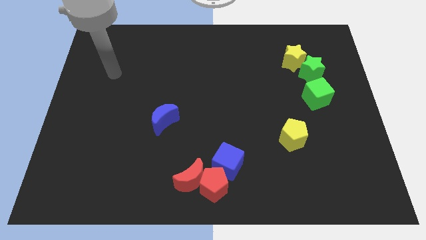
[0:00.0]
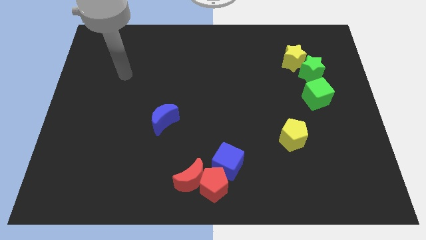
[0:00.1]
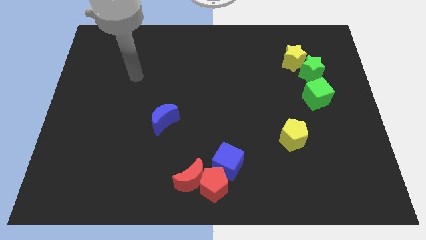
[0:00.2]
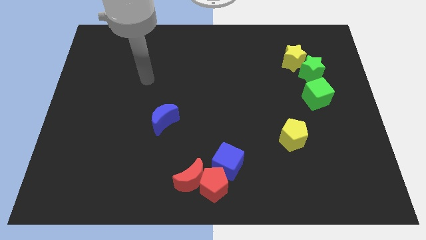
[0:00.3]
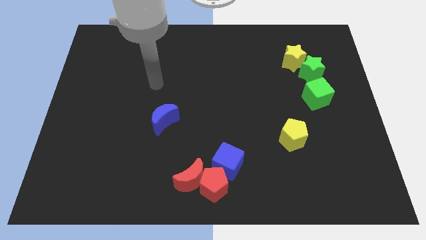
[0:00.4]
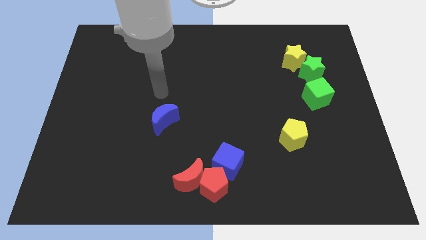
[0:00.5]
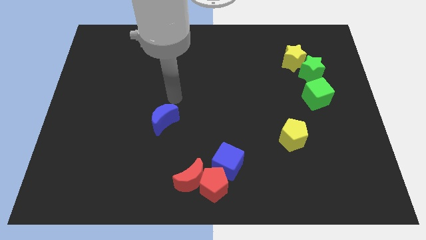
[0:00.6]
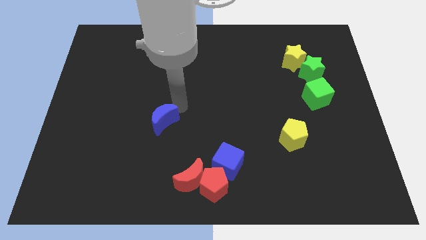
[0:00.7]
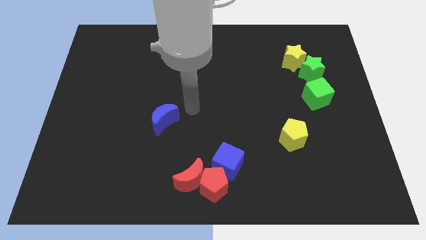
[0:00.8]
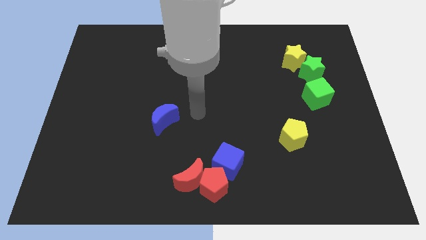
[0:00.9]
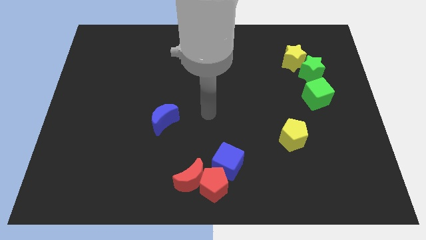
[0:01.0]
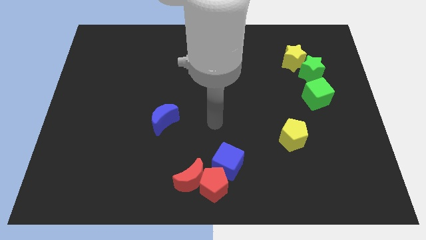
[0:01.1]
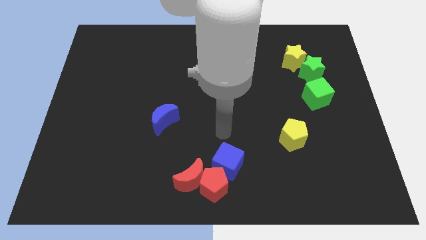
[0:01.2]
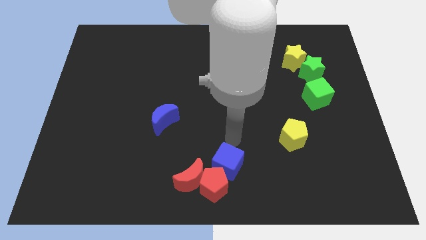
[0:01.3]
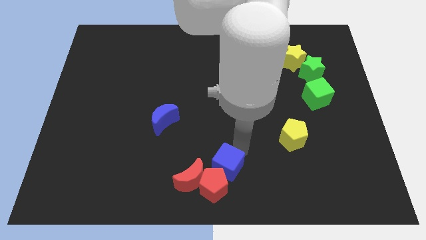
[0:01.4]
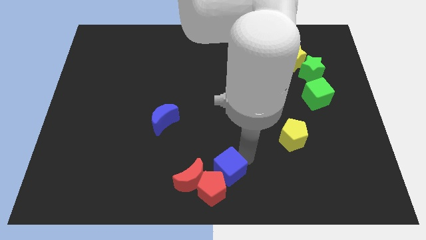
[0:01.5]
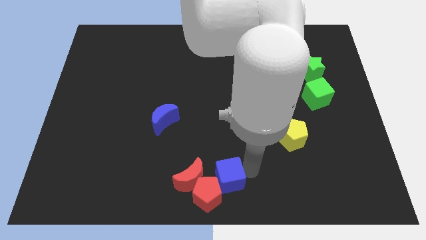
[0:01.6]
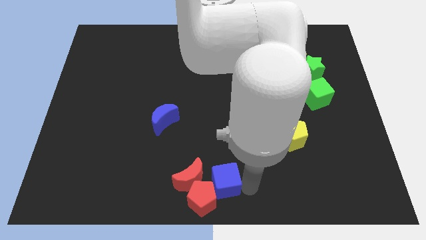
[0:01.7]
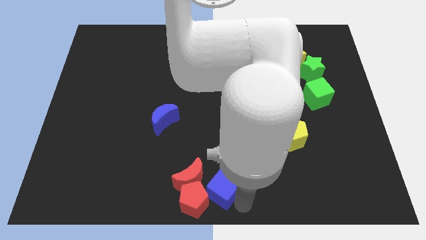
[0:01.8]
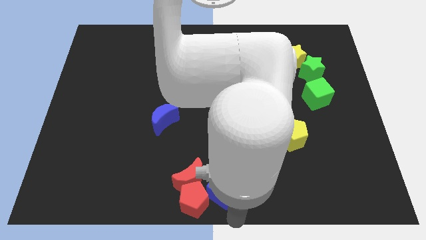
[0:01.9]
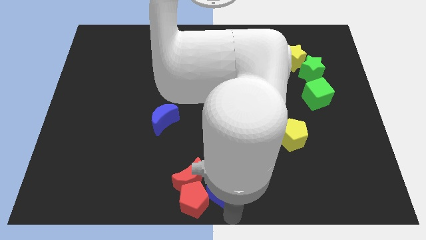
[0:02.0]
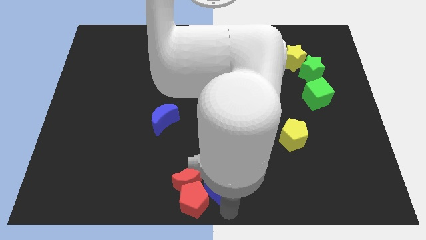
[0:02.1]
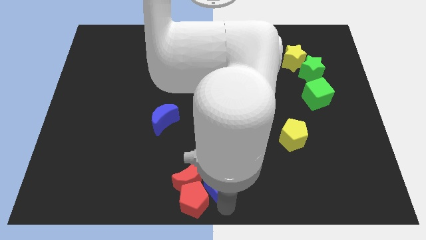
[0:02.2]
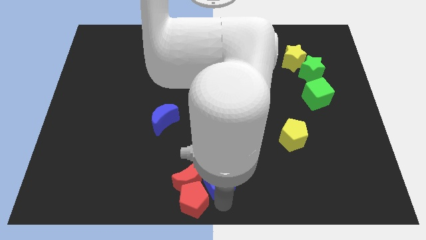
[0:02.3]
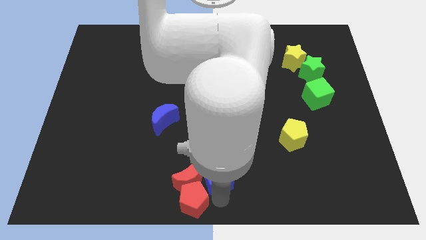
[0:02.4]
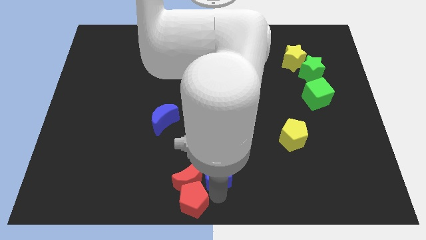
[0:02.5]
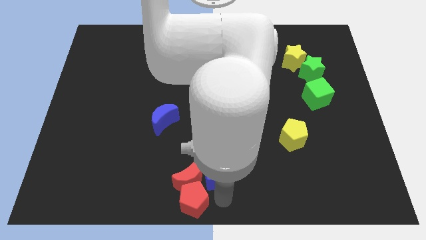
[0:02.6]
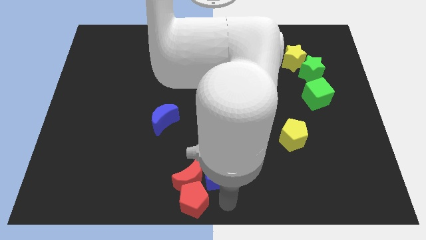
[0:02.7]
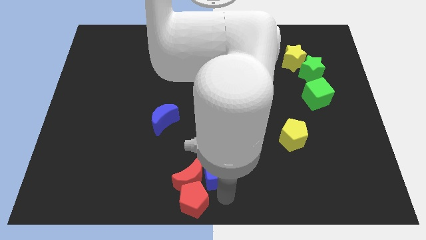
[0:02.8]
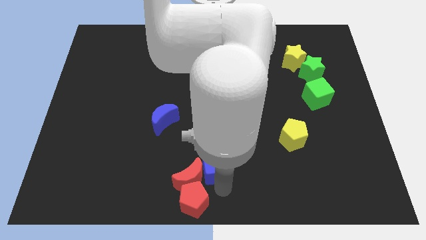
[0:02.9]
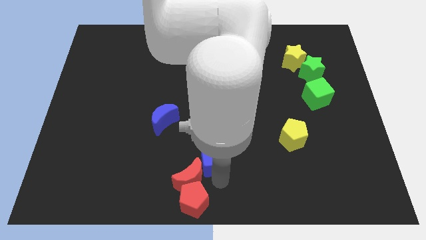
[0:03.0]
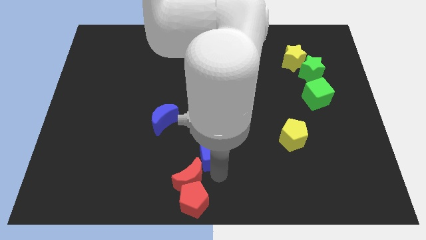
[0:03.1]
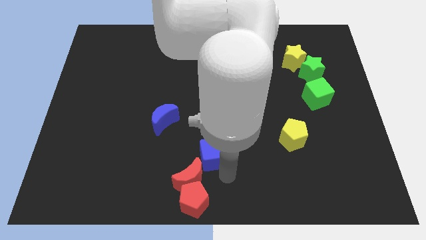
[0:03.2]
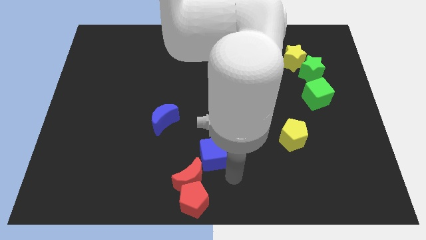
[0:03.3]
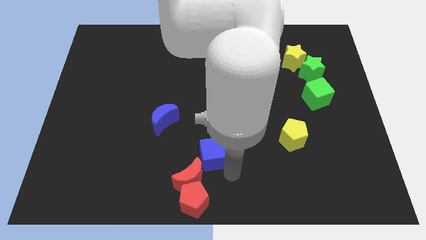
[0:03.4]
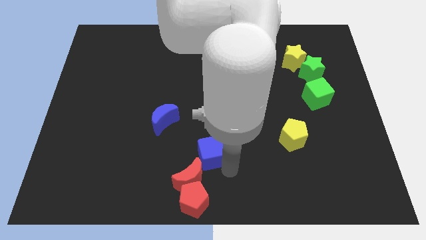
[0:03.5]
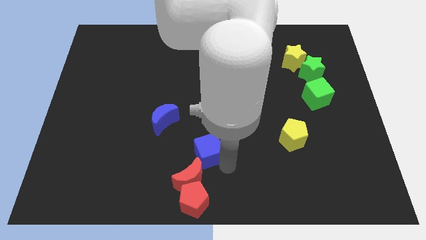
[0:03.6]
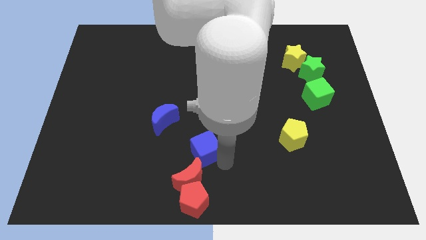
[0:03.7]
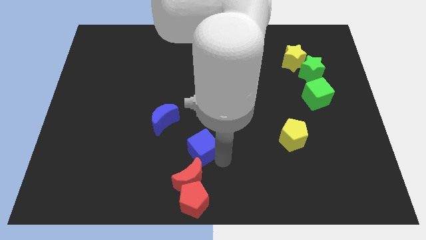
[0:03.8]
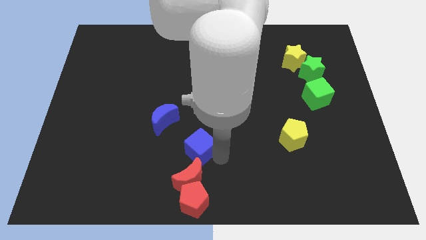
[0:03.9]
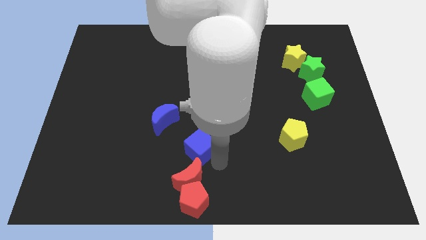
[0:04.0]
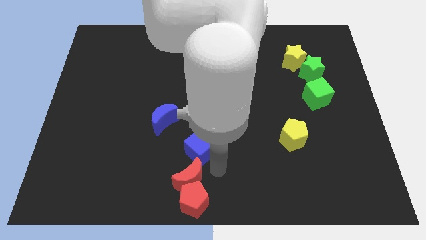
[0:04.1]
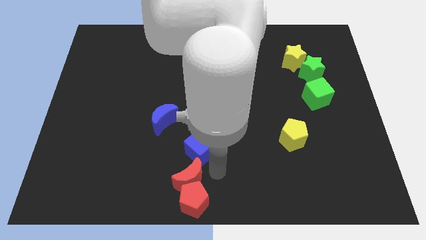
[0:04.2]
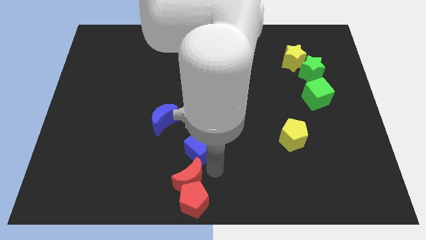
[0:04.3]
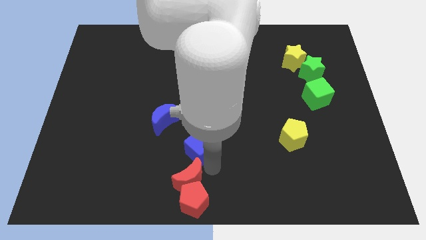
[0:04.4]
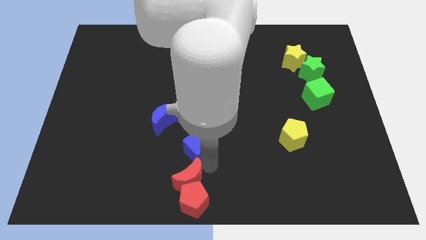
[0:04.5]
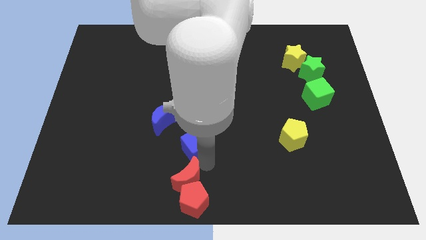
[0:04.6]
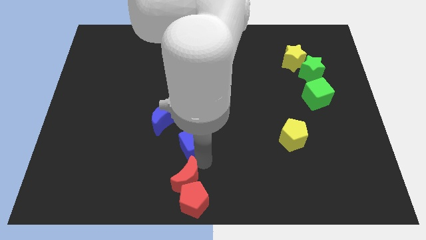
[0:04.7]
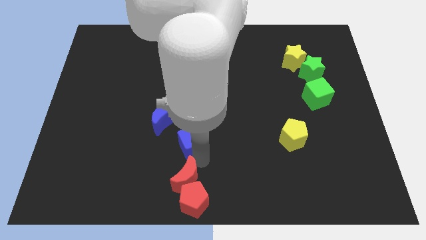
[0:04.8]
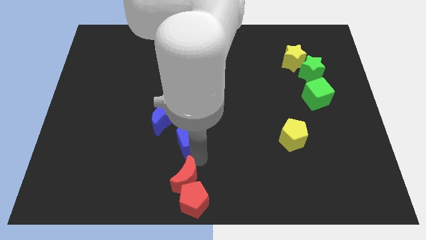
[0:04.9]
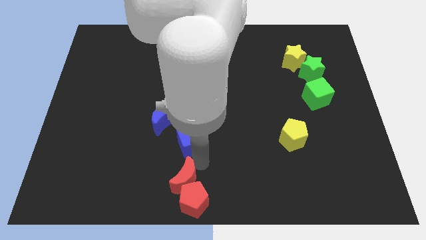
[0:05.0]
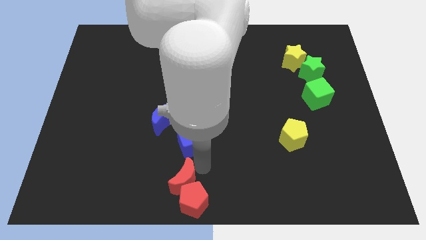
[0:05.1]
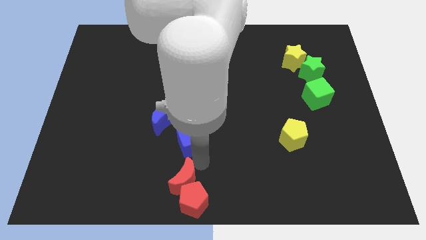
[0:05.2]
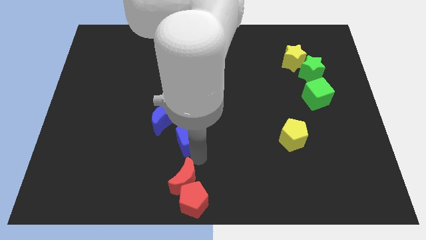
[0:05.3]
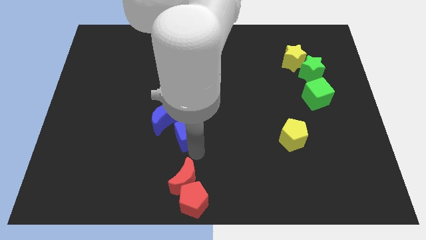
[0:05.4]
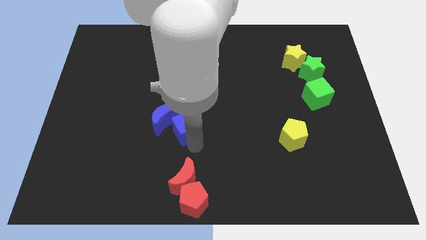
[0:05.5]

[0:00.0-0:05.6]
put the blue cube to the blue moon

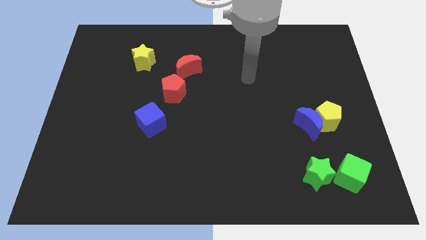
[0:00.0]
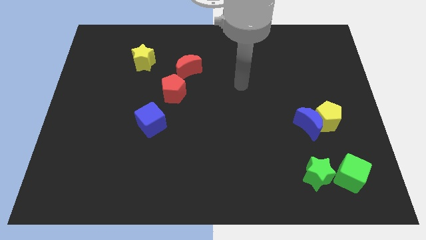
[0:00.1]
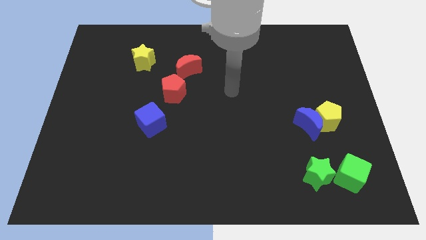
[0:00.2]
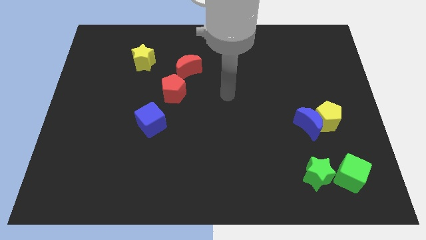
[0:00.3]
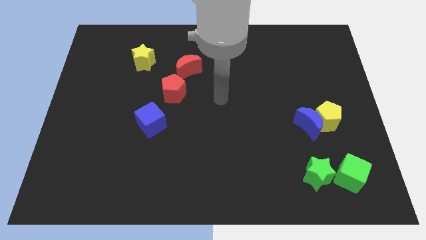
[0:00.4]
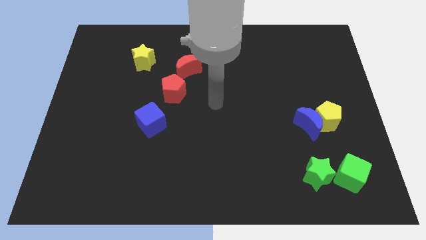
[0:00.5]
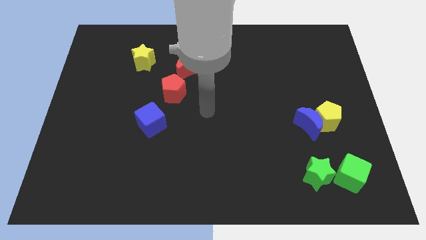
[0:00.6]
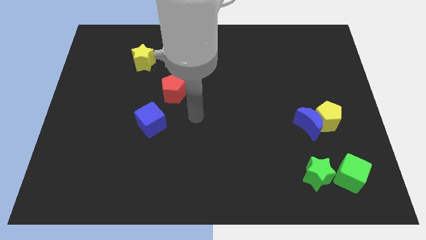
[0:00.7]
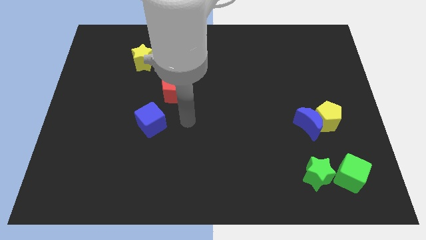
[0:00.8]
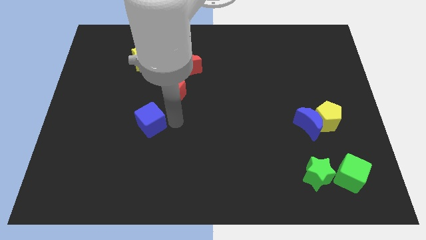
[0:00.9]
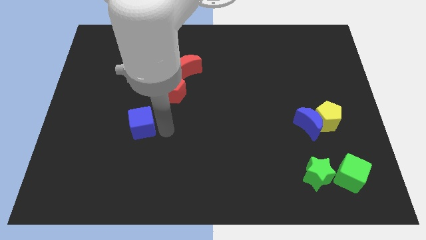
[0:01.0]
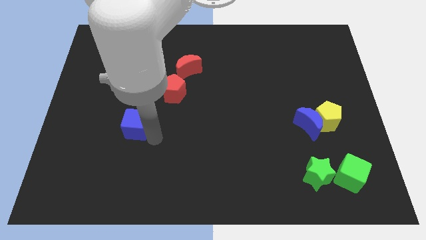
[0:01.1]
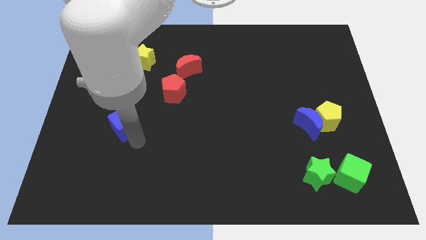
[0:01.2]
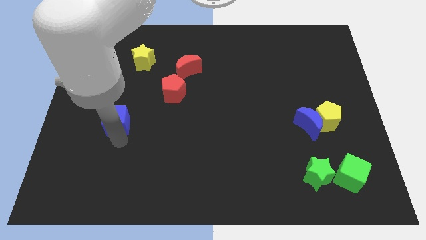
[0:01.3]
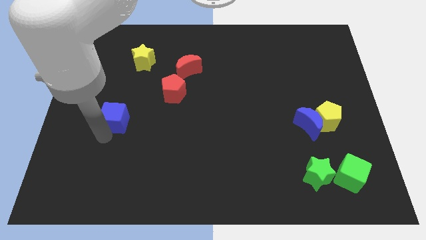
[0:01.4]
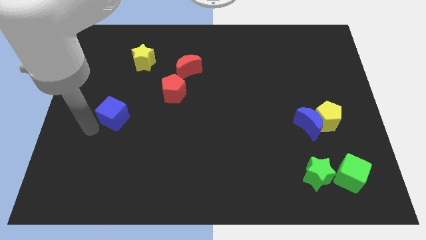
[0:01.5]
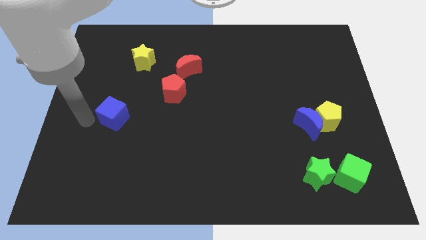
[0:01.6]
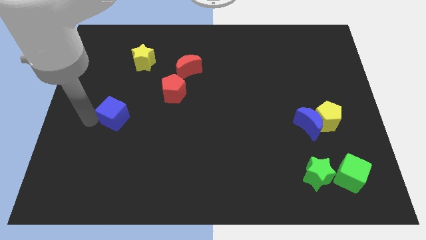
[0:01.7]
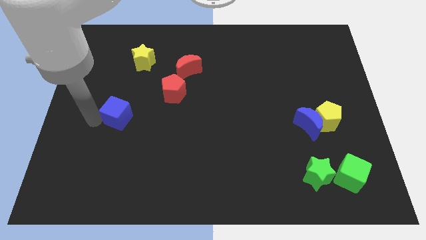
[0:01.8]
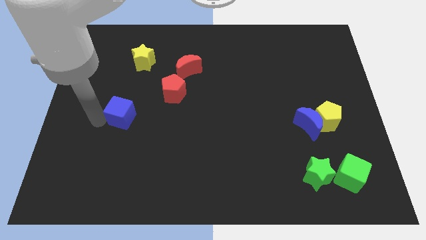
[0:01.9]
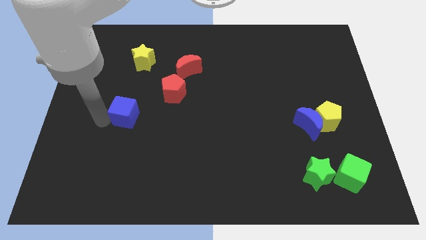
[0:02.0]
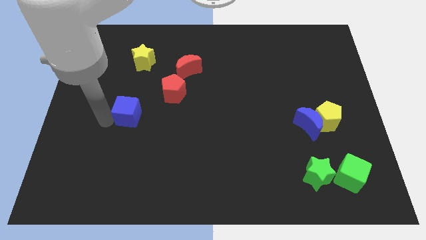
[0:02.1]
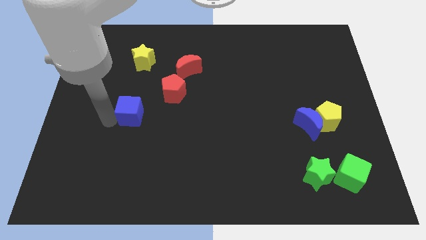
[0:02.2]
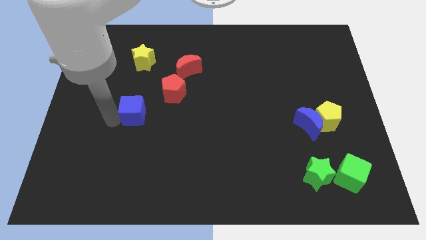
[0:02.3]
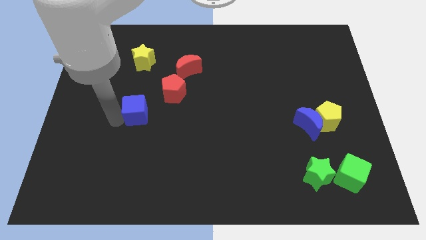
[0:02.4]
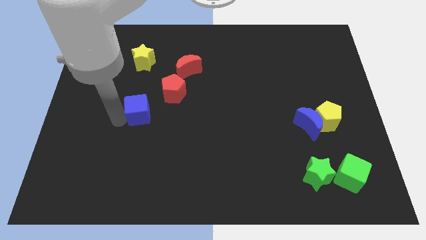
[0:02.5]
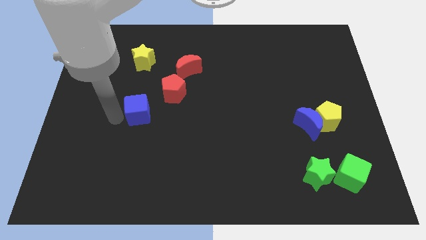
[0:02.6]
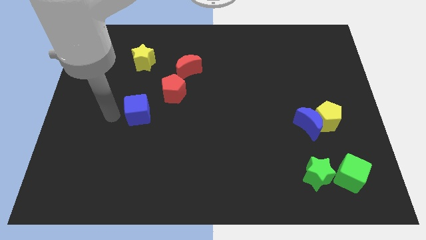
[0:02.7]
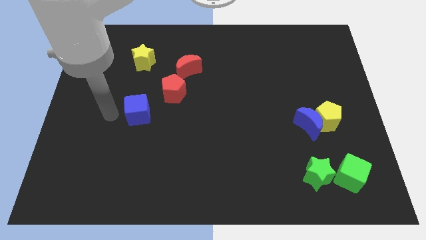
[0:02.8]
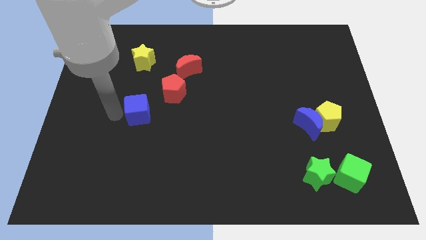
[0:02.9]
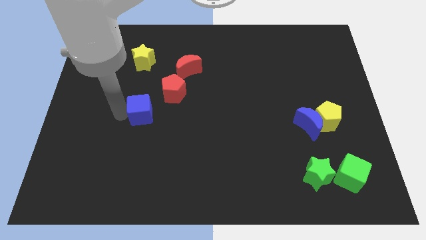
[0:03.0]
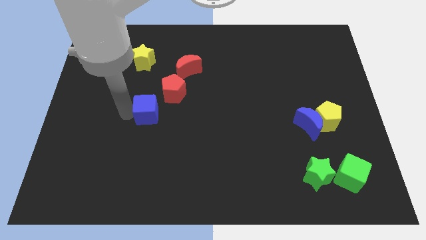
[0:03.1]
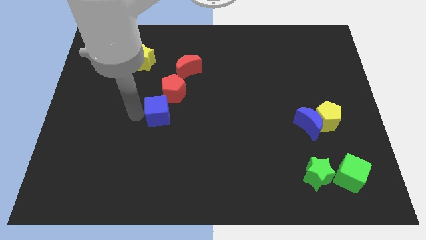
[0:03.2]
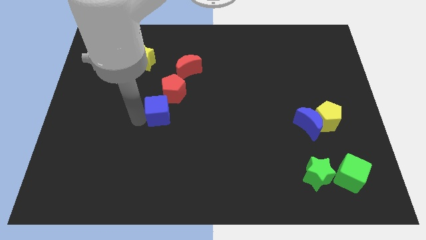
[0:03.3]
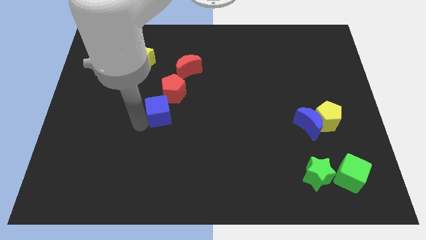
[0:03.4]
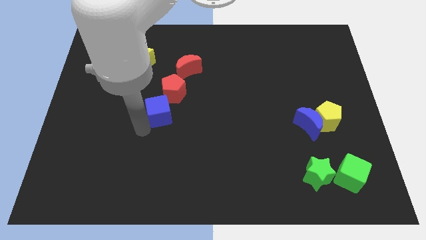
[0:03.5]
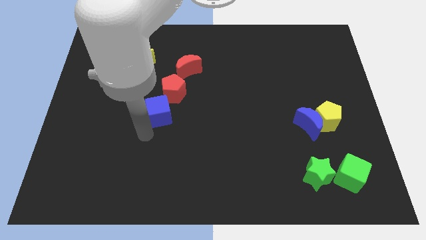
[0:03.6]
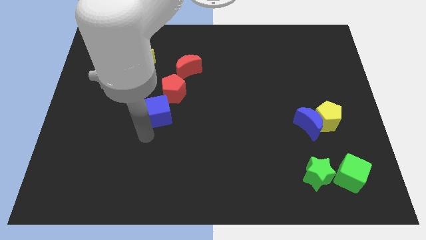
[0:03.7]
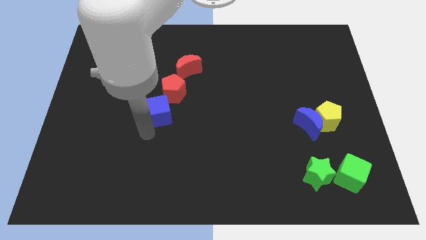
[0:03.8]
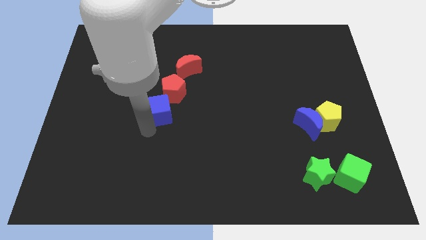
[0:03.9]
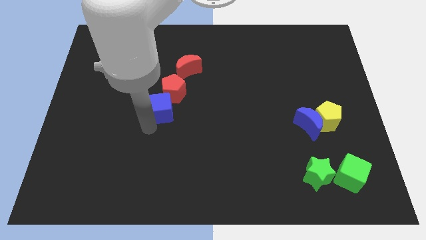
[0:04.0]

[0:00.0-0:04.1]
push the blue cube next to the red pentagon
